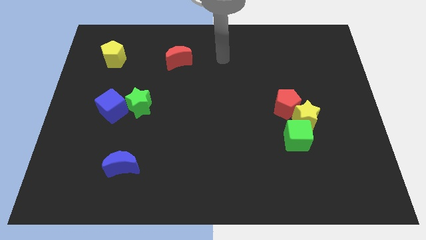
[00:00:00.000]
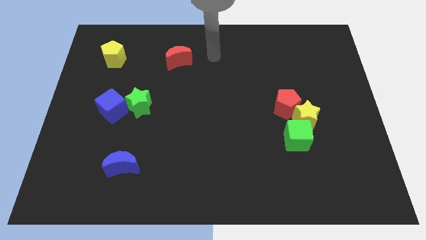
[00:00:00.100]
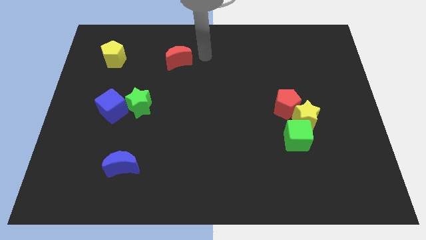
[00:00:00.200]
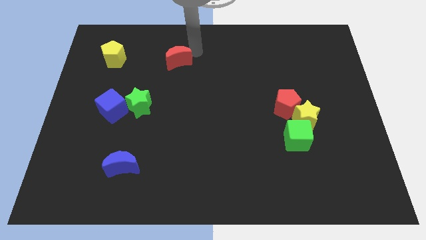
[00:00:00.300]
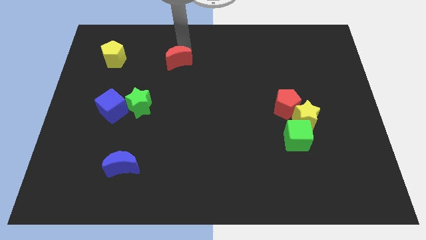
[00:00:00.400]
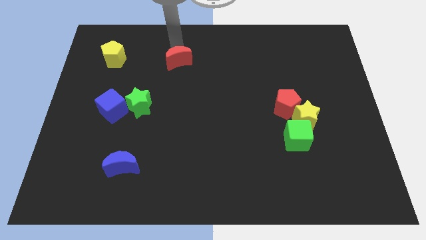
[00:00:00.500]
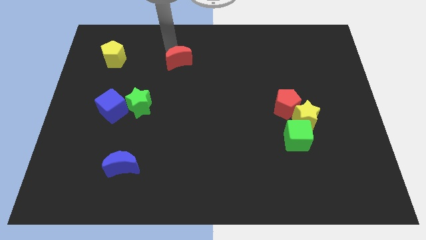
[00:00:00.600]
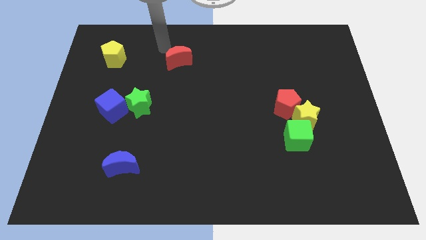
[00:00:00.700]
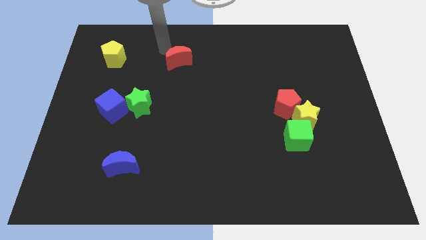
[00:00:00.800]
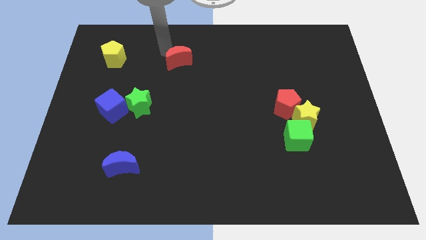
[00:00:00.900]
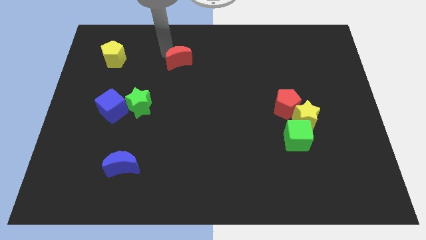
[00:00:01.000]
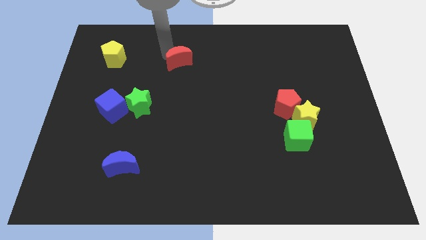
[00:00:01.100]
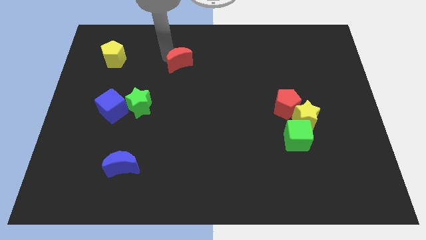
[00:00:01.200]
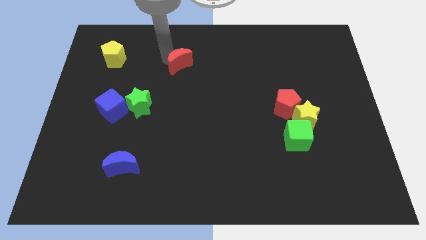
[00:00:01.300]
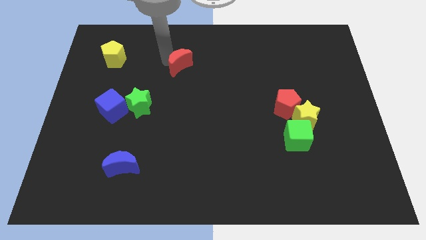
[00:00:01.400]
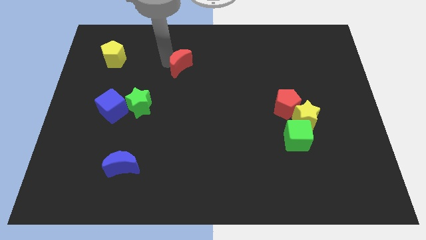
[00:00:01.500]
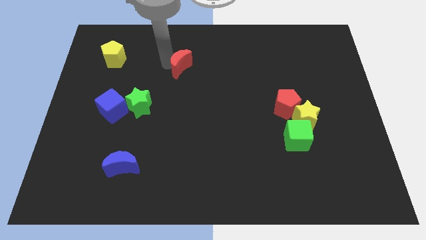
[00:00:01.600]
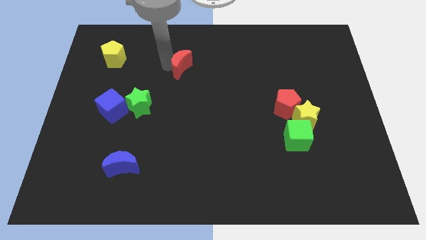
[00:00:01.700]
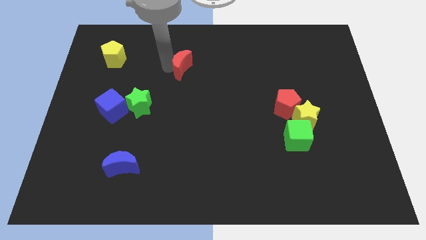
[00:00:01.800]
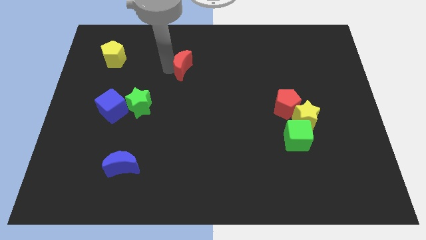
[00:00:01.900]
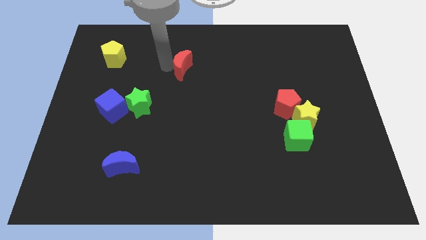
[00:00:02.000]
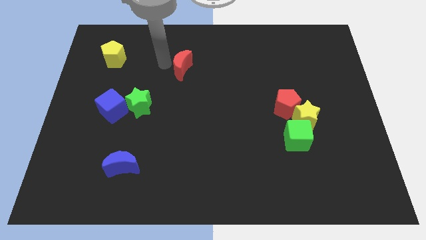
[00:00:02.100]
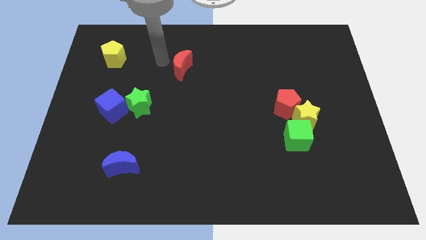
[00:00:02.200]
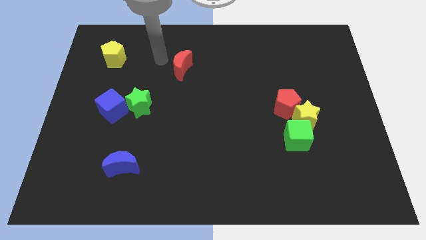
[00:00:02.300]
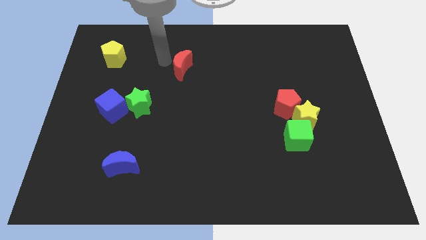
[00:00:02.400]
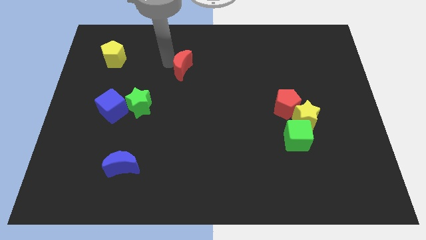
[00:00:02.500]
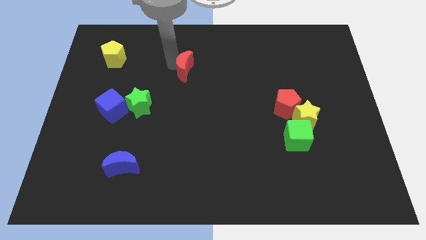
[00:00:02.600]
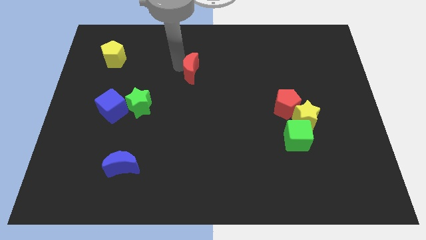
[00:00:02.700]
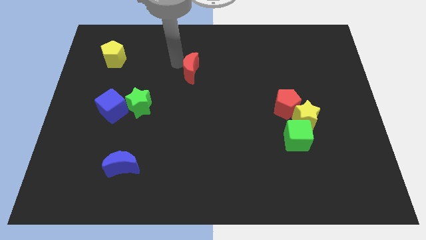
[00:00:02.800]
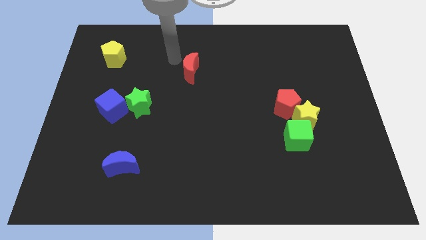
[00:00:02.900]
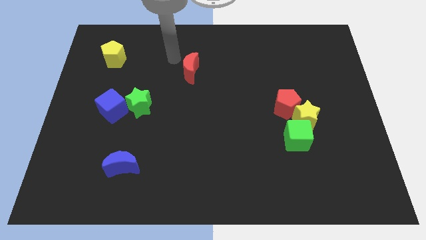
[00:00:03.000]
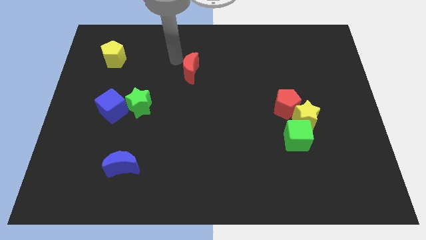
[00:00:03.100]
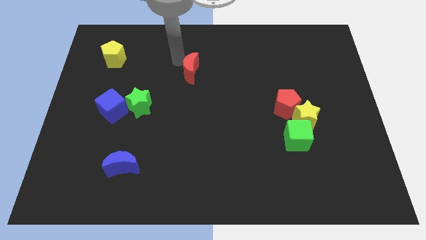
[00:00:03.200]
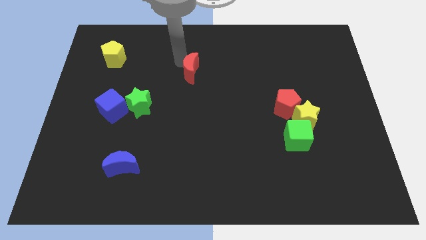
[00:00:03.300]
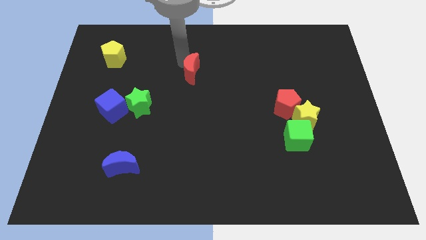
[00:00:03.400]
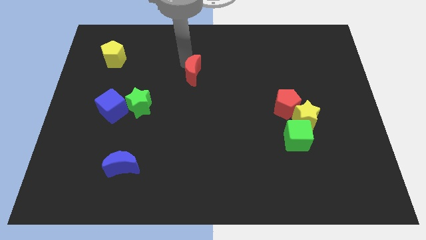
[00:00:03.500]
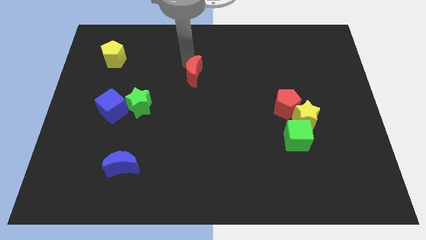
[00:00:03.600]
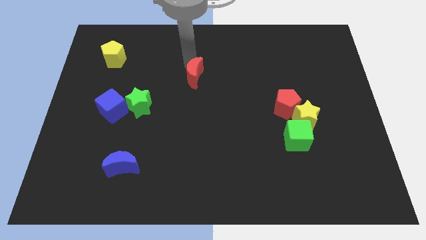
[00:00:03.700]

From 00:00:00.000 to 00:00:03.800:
slightly move the red moon downwards and to the right

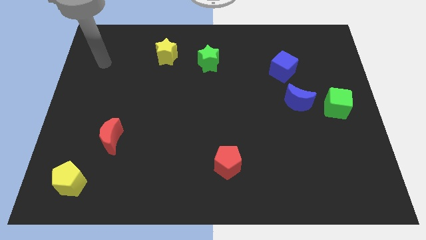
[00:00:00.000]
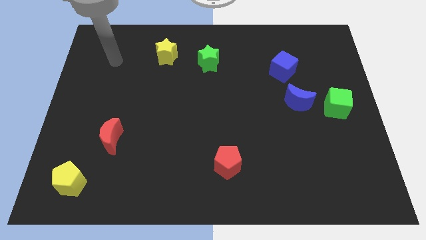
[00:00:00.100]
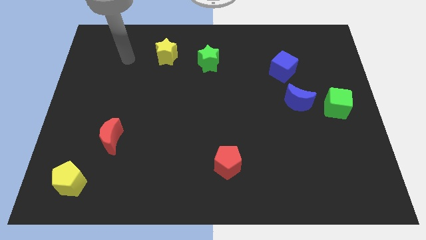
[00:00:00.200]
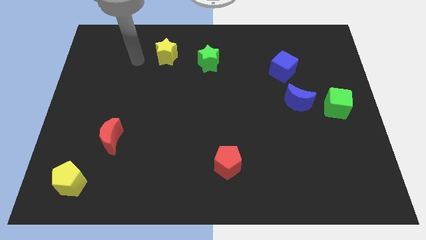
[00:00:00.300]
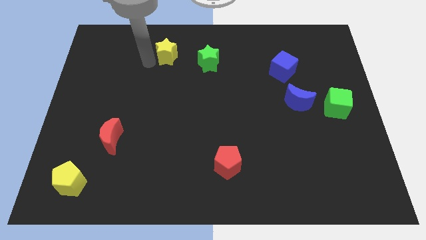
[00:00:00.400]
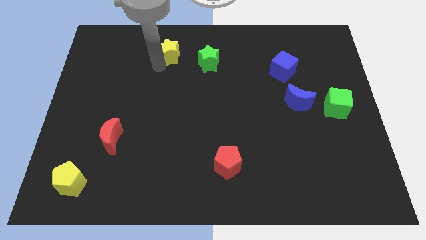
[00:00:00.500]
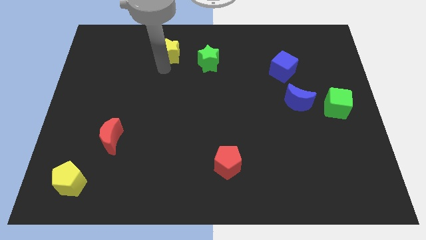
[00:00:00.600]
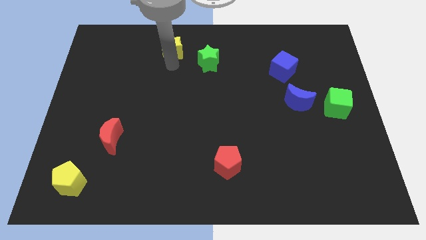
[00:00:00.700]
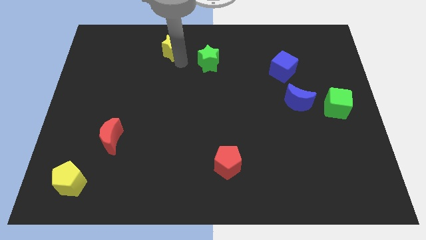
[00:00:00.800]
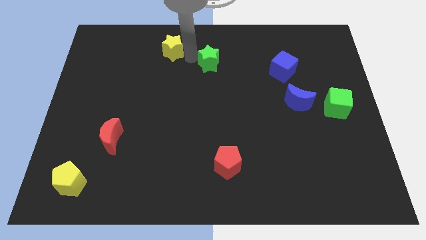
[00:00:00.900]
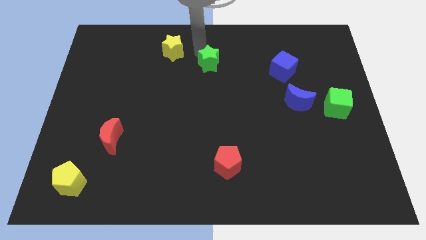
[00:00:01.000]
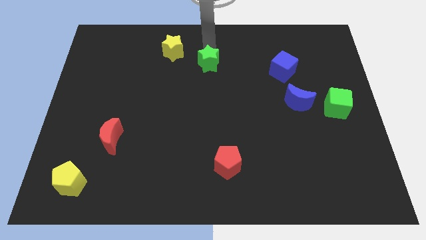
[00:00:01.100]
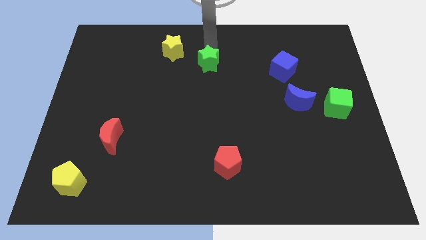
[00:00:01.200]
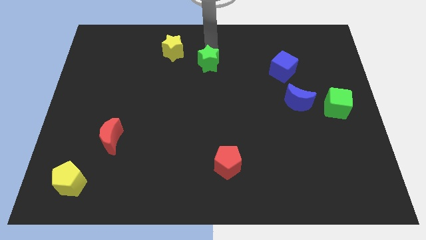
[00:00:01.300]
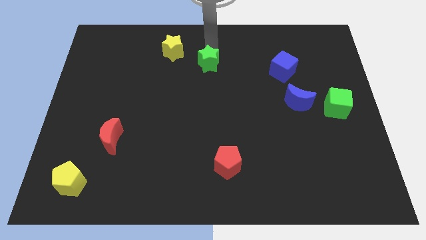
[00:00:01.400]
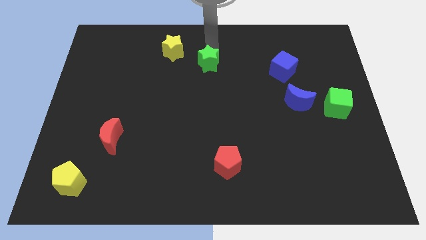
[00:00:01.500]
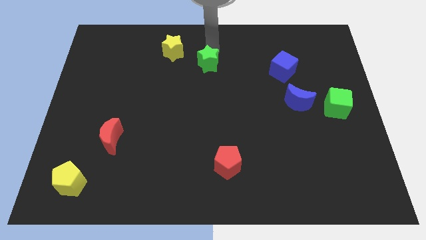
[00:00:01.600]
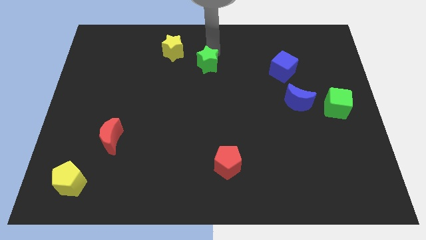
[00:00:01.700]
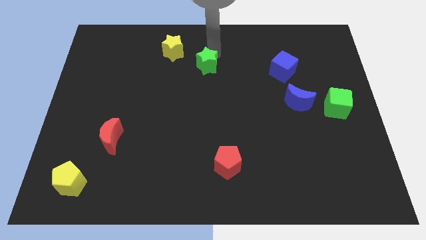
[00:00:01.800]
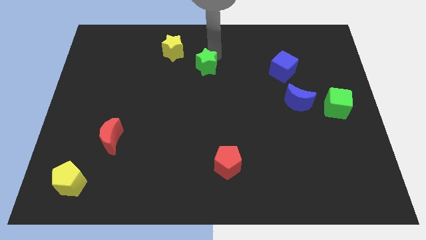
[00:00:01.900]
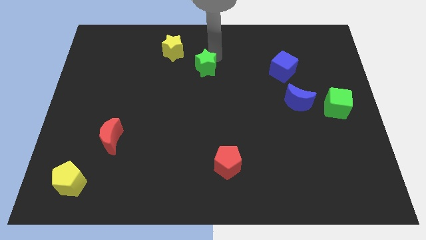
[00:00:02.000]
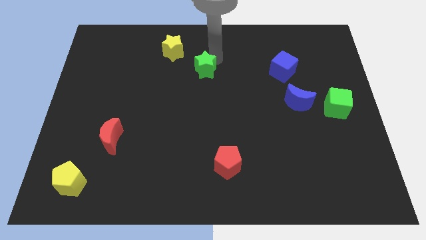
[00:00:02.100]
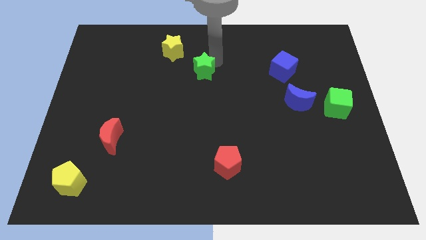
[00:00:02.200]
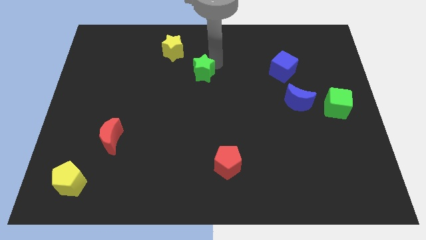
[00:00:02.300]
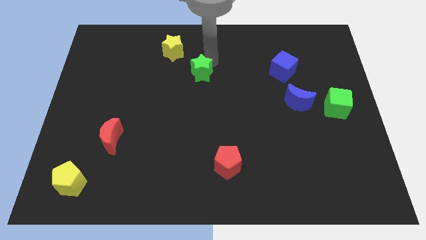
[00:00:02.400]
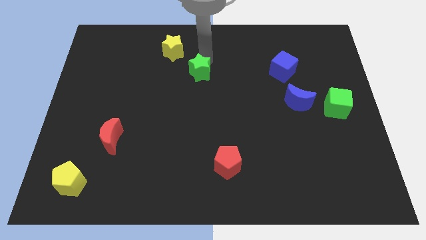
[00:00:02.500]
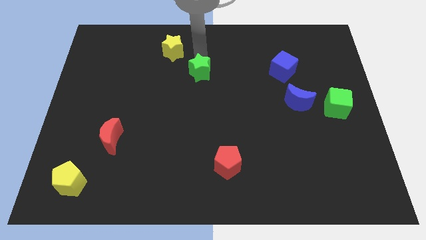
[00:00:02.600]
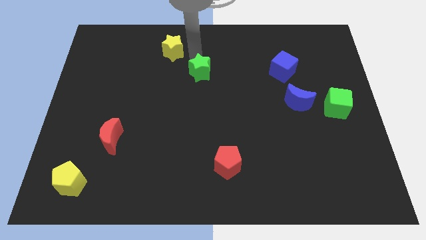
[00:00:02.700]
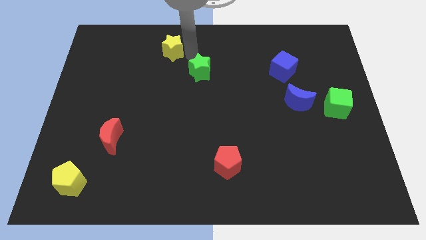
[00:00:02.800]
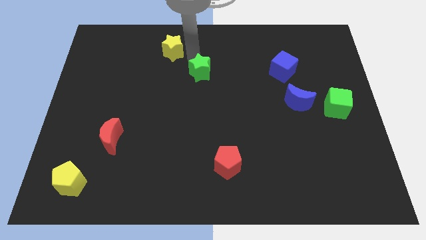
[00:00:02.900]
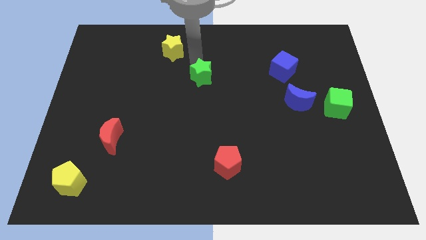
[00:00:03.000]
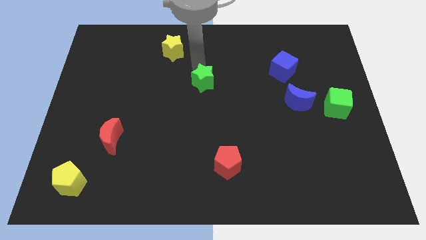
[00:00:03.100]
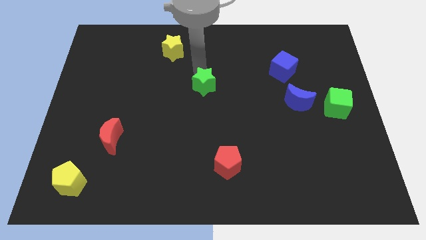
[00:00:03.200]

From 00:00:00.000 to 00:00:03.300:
slightly slide the green star down

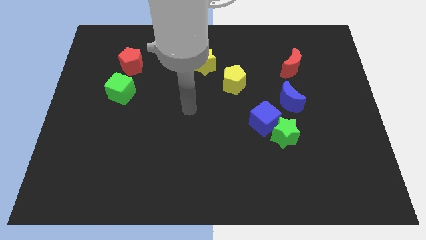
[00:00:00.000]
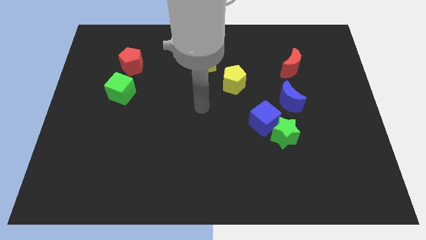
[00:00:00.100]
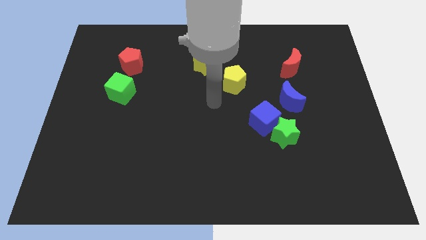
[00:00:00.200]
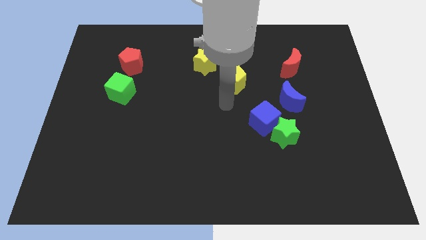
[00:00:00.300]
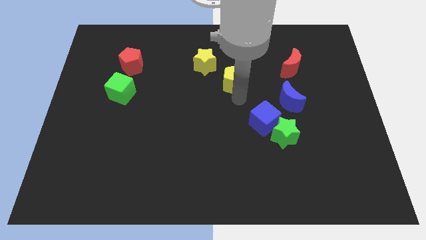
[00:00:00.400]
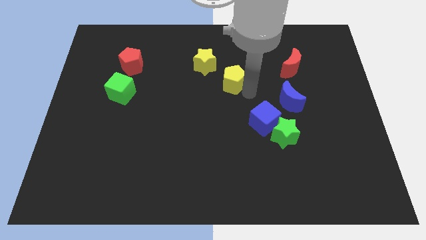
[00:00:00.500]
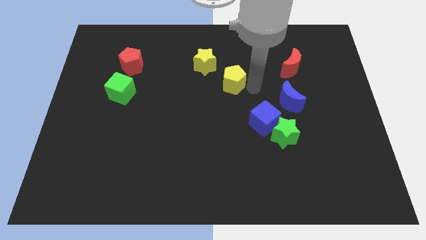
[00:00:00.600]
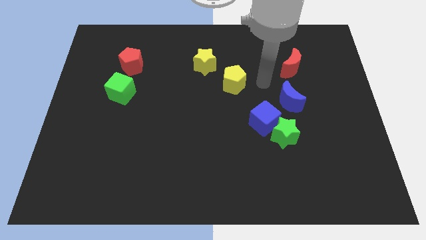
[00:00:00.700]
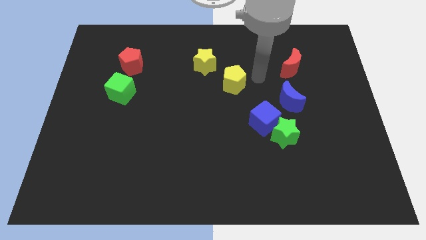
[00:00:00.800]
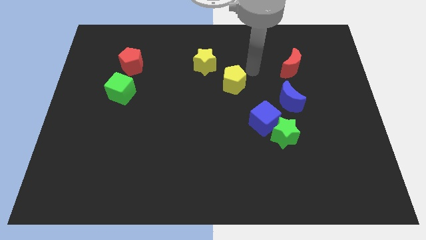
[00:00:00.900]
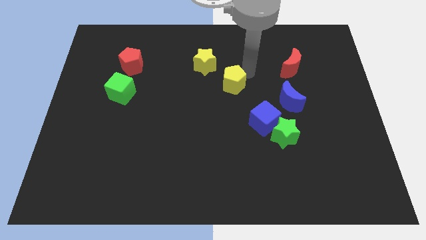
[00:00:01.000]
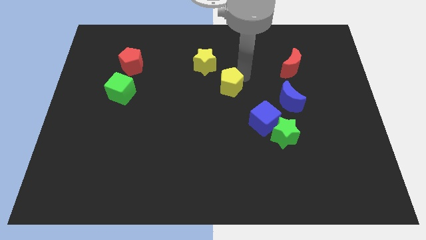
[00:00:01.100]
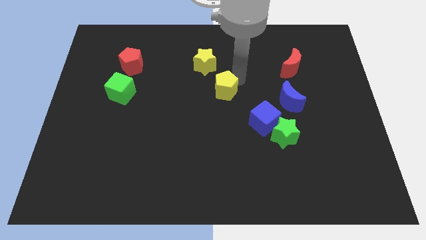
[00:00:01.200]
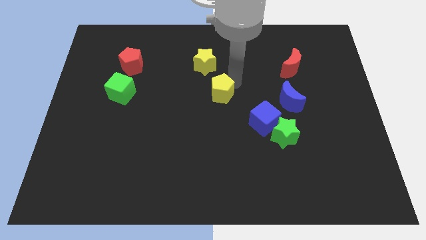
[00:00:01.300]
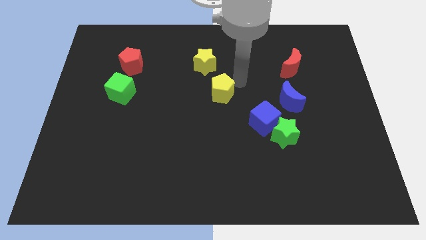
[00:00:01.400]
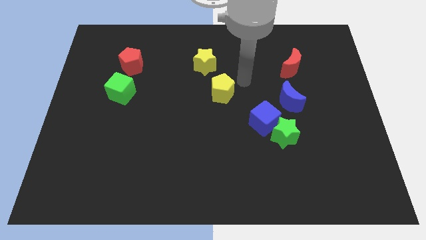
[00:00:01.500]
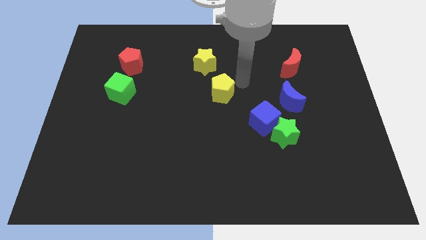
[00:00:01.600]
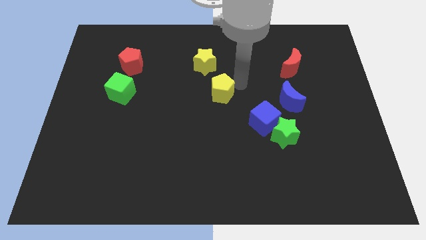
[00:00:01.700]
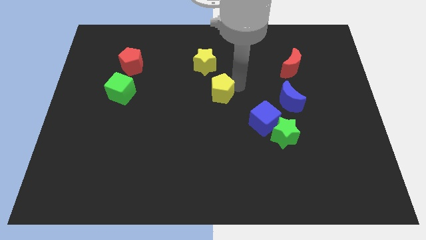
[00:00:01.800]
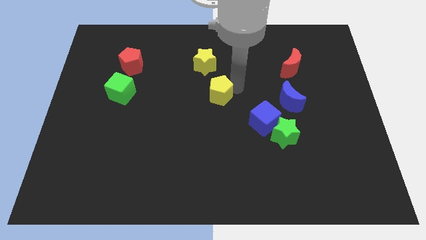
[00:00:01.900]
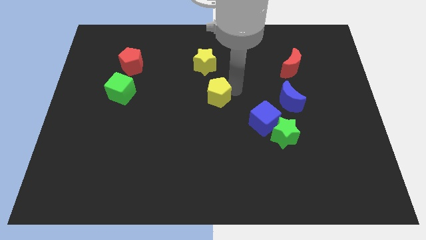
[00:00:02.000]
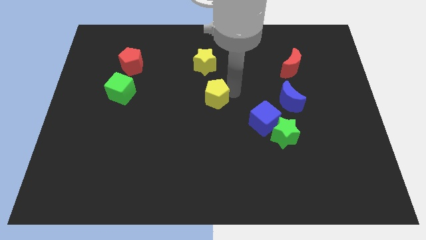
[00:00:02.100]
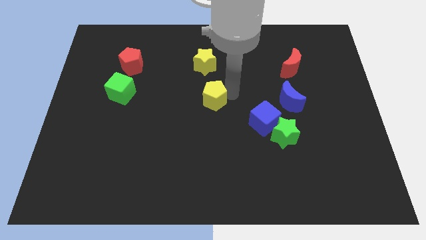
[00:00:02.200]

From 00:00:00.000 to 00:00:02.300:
move the yellow pentagon downwards and then to the left a little bit
